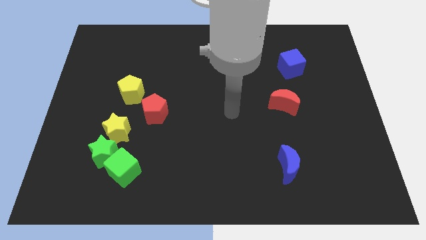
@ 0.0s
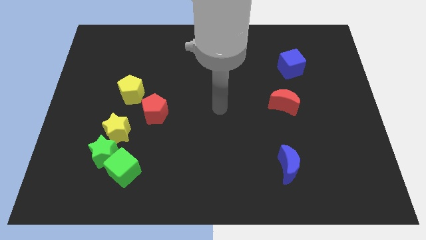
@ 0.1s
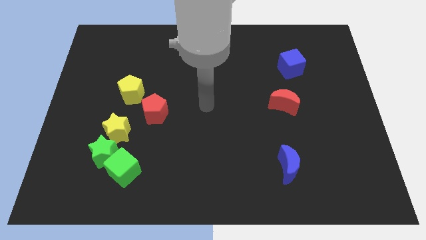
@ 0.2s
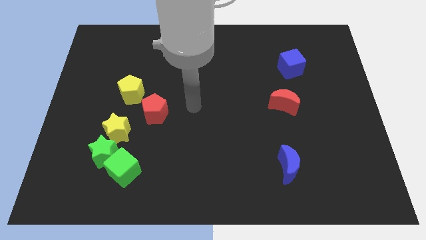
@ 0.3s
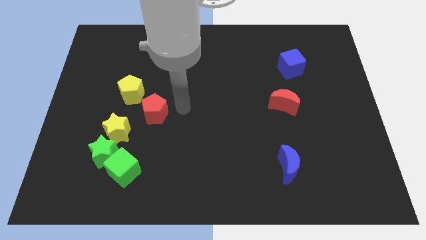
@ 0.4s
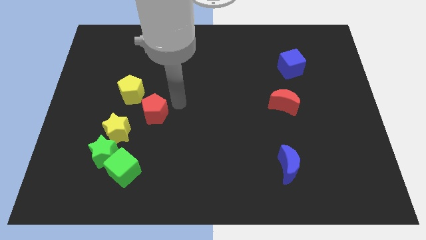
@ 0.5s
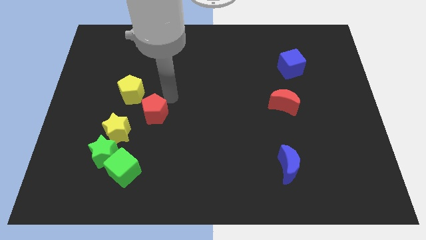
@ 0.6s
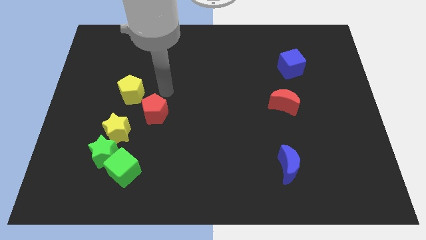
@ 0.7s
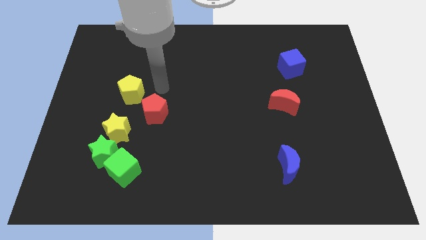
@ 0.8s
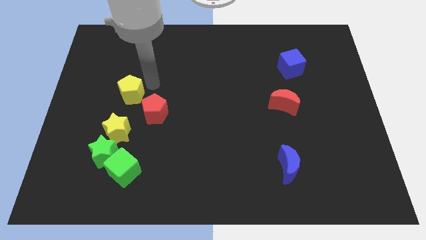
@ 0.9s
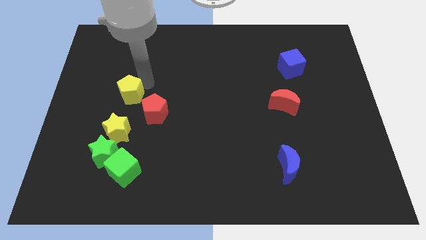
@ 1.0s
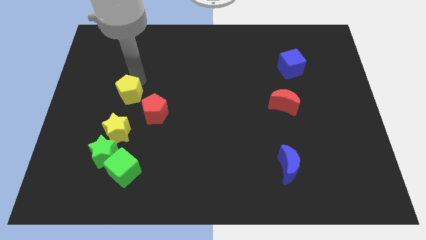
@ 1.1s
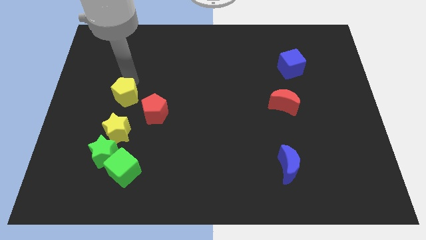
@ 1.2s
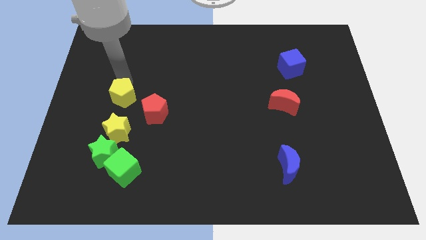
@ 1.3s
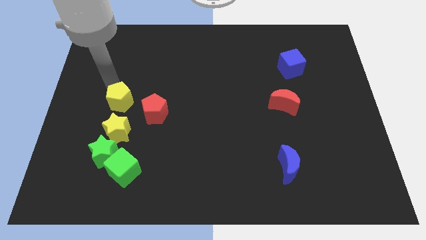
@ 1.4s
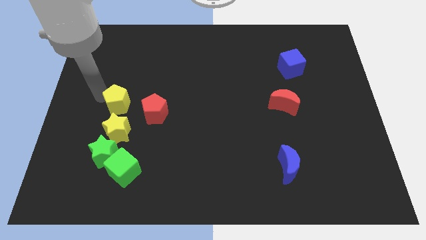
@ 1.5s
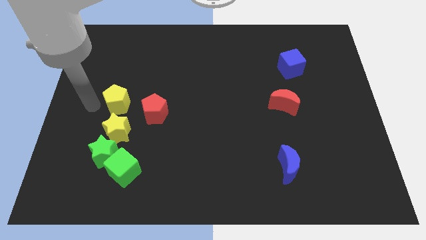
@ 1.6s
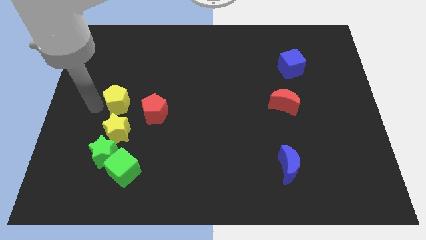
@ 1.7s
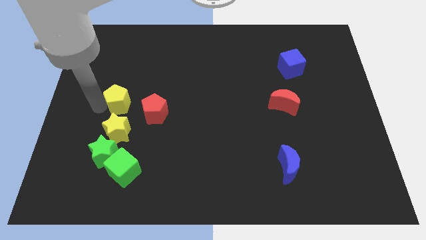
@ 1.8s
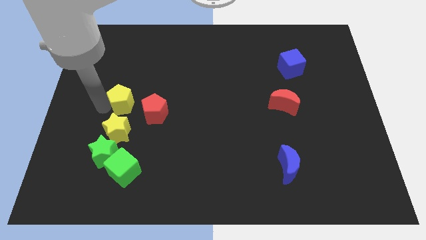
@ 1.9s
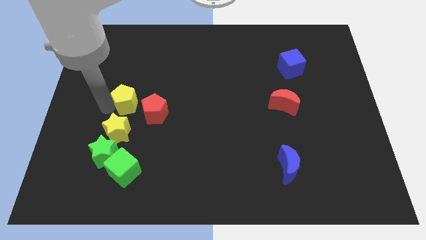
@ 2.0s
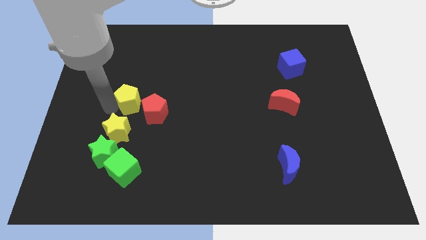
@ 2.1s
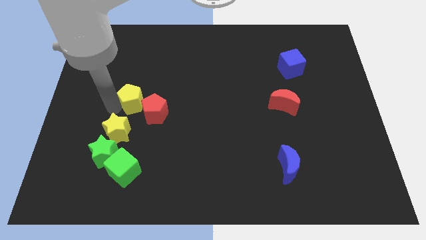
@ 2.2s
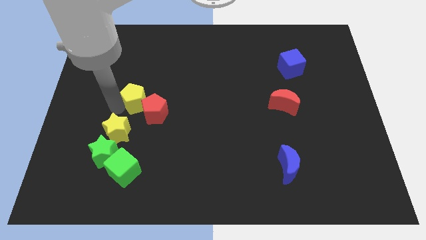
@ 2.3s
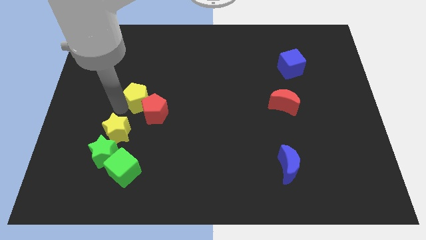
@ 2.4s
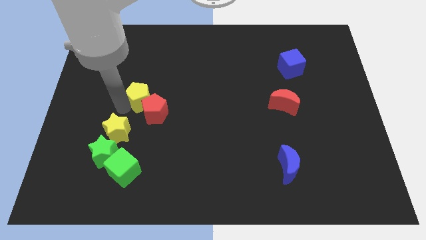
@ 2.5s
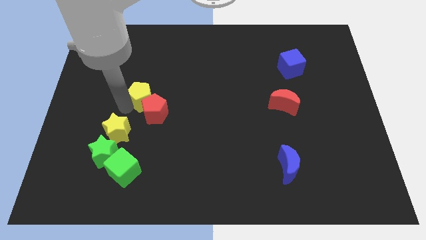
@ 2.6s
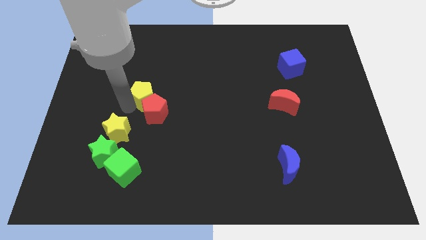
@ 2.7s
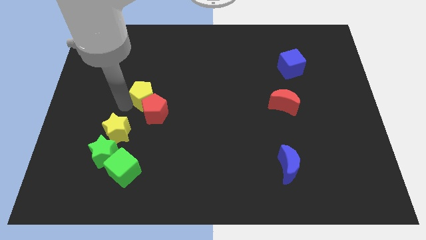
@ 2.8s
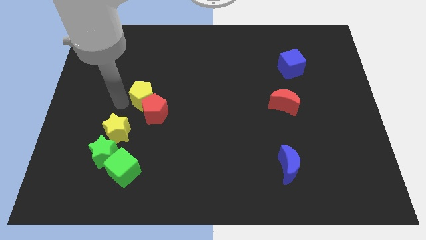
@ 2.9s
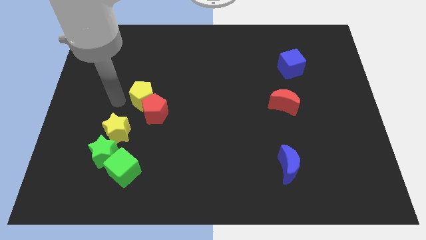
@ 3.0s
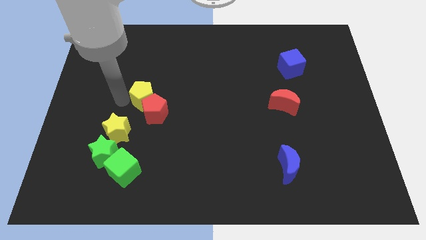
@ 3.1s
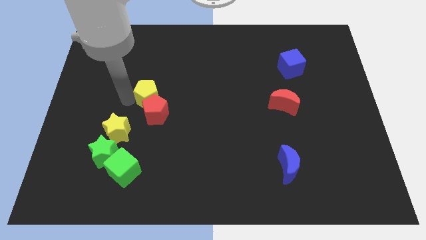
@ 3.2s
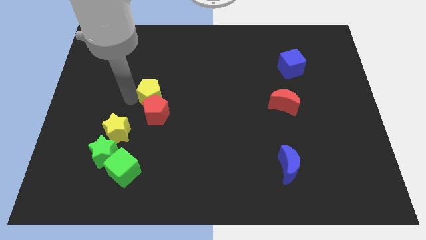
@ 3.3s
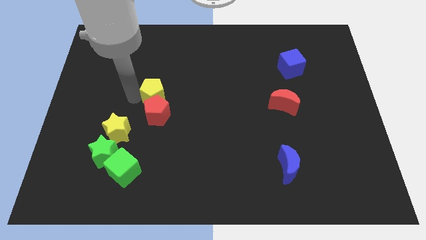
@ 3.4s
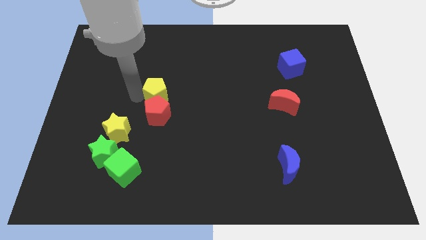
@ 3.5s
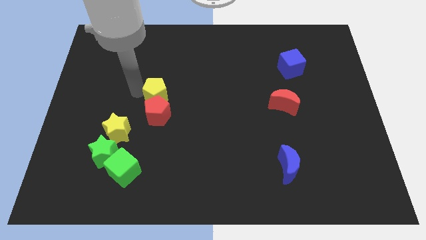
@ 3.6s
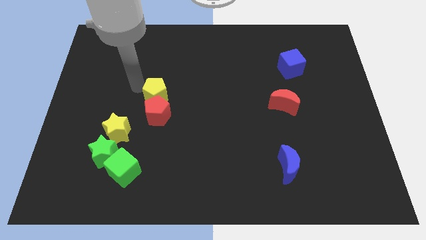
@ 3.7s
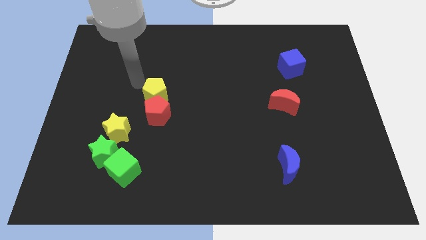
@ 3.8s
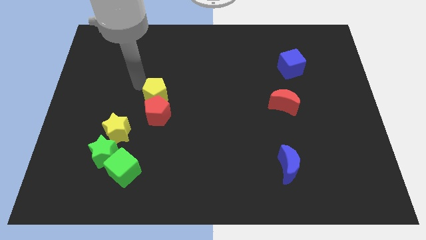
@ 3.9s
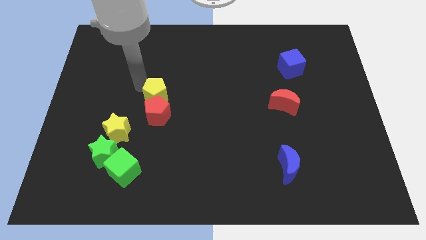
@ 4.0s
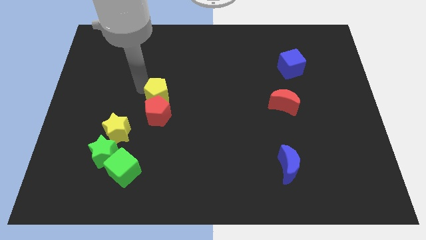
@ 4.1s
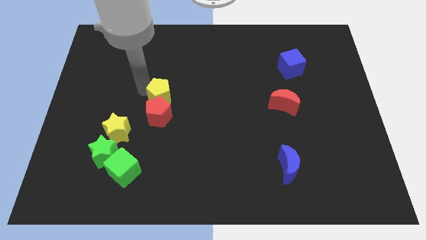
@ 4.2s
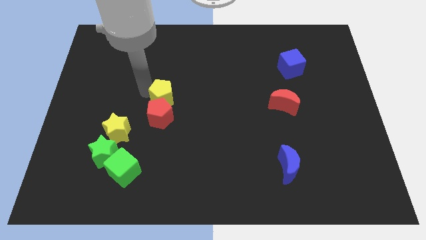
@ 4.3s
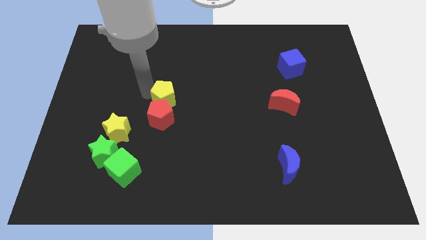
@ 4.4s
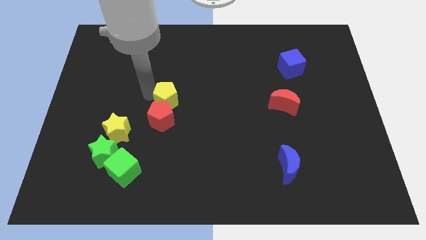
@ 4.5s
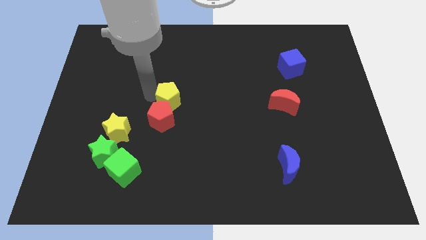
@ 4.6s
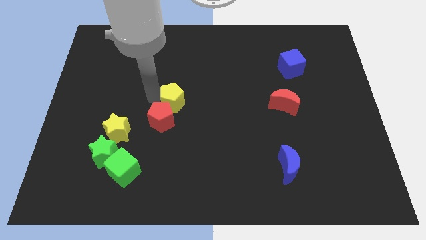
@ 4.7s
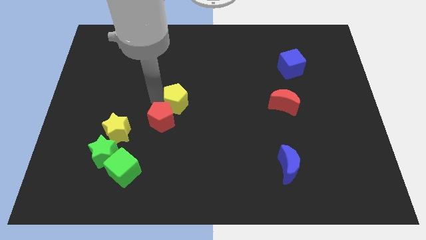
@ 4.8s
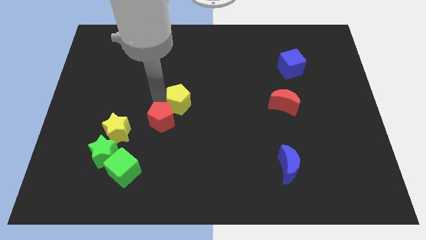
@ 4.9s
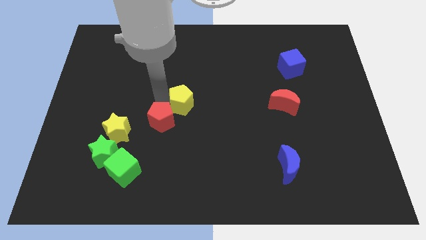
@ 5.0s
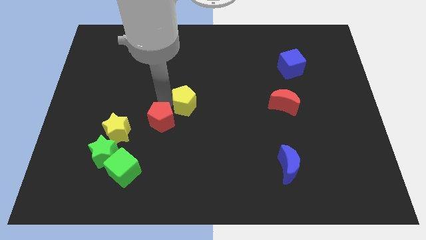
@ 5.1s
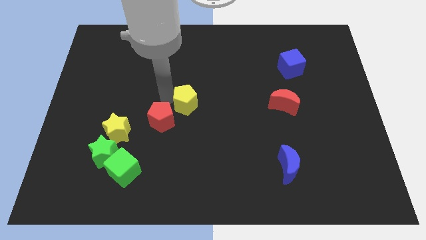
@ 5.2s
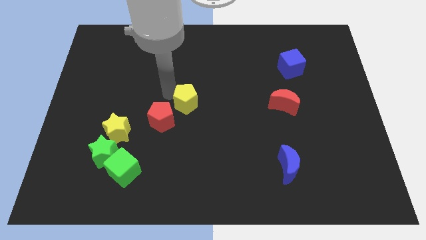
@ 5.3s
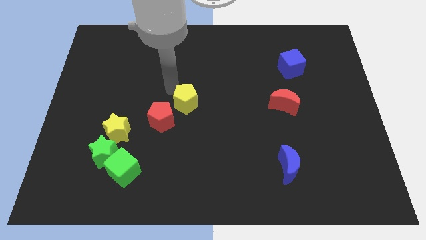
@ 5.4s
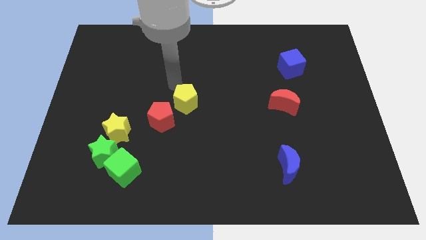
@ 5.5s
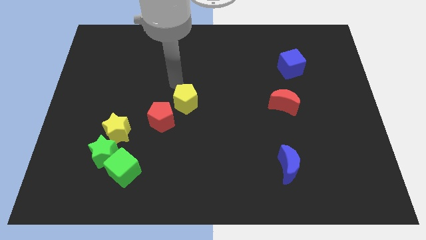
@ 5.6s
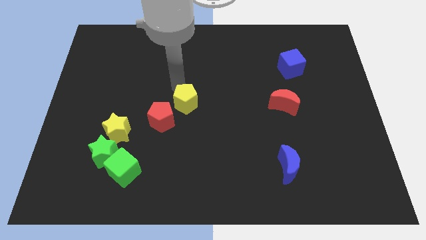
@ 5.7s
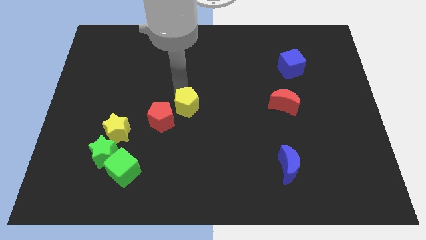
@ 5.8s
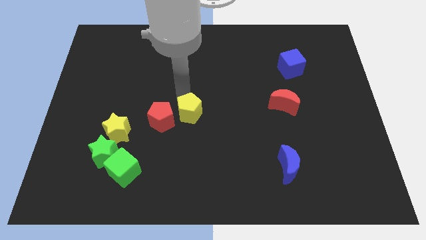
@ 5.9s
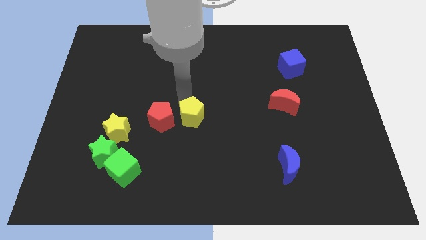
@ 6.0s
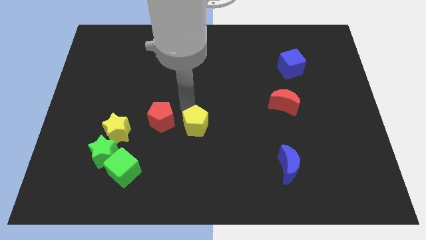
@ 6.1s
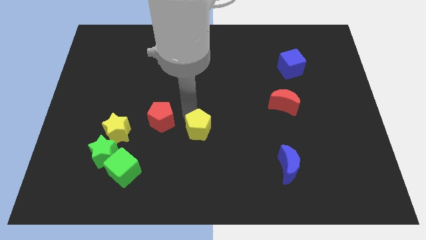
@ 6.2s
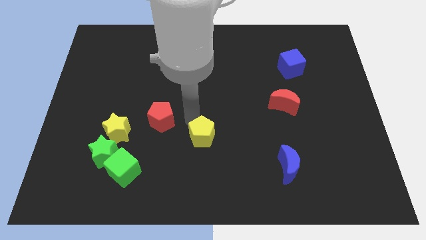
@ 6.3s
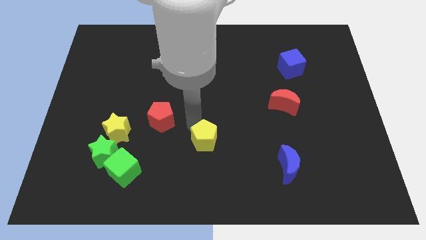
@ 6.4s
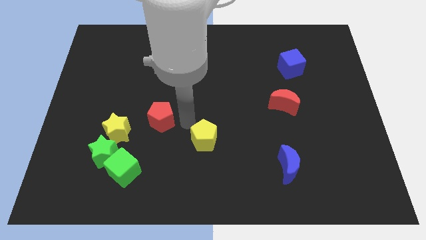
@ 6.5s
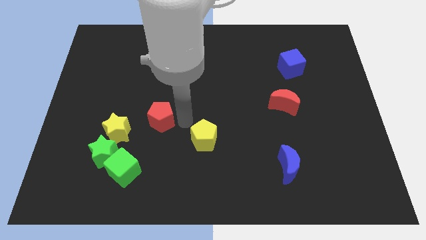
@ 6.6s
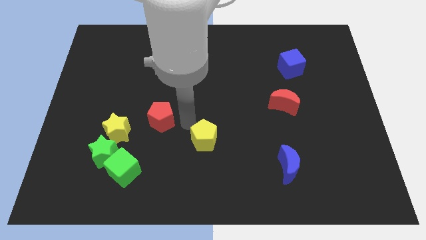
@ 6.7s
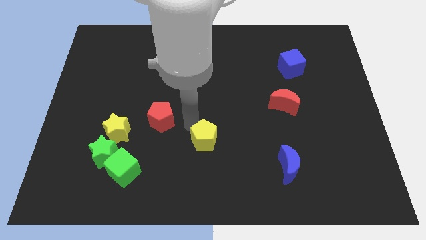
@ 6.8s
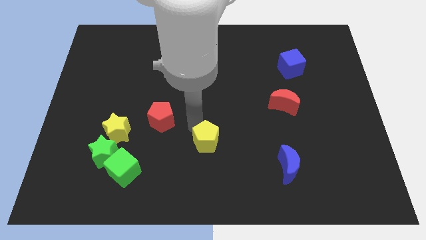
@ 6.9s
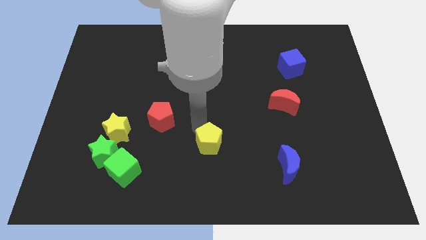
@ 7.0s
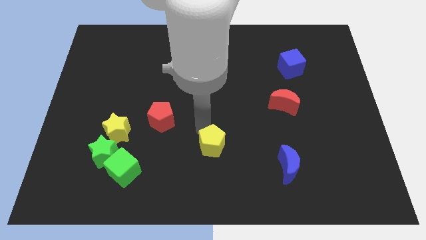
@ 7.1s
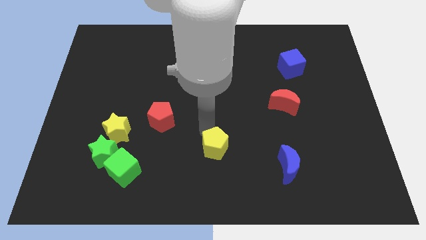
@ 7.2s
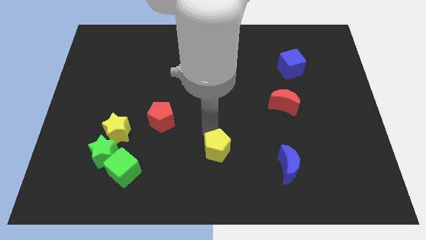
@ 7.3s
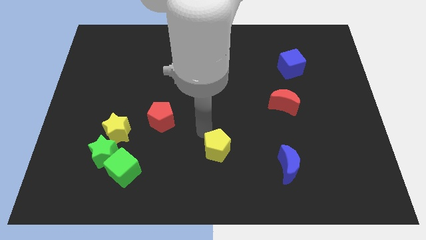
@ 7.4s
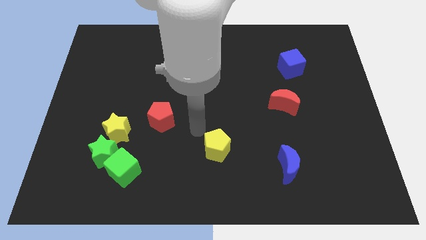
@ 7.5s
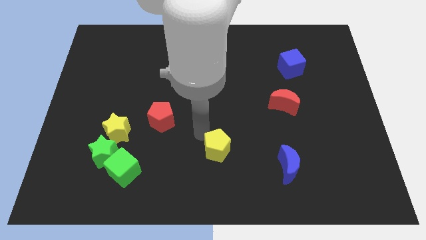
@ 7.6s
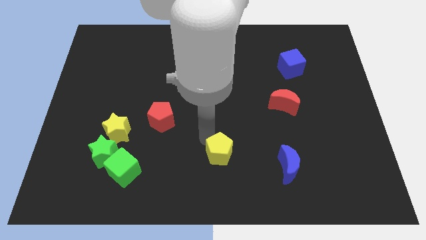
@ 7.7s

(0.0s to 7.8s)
push the yellow pentagon left of the blue moon

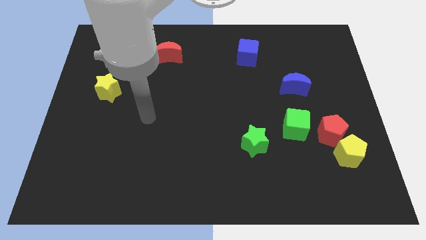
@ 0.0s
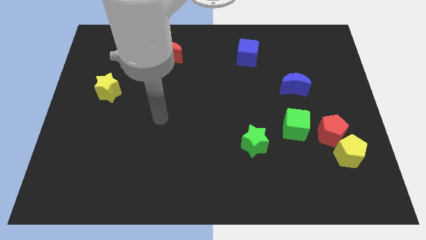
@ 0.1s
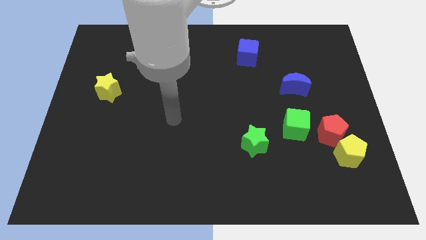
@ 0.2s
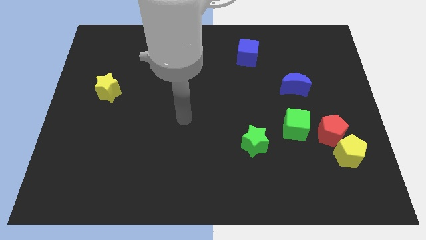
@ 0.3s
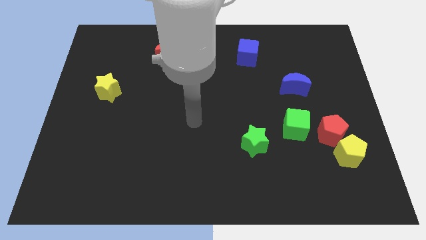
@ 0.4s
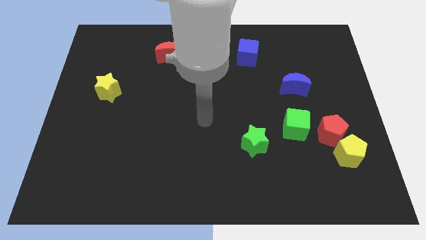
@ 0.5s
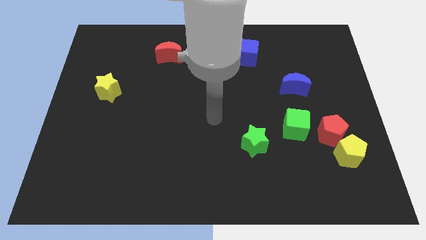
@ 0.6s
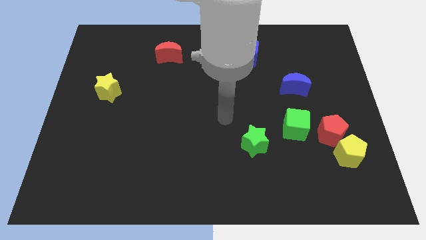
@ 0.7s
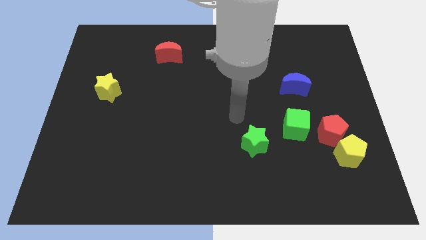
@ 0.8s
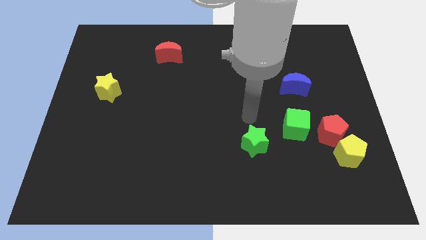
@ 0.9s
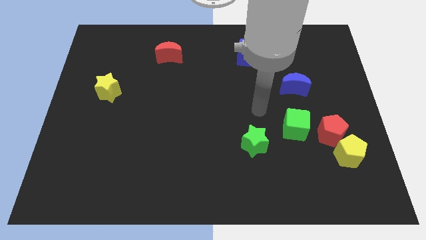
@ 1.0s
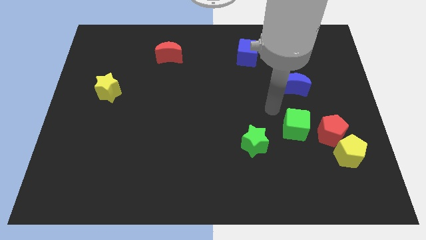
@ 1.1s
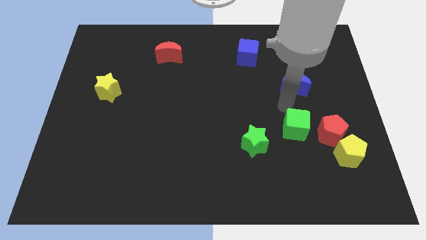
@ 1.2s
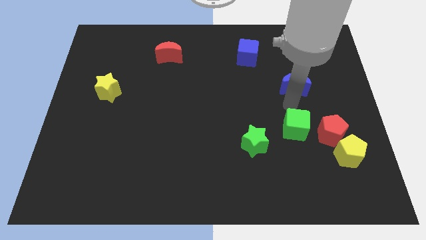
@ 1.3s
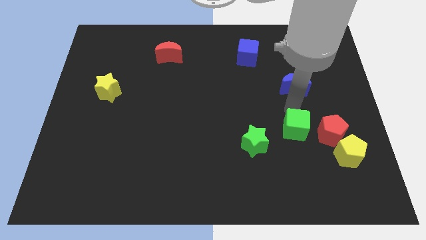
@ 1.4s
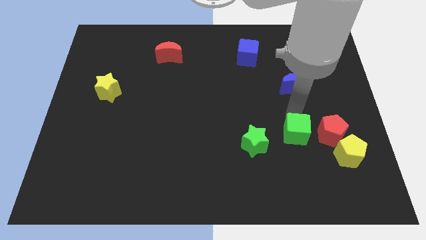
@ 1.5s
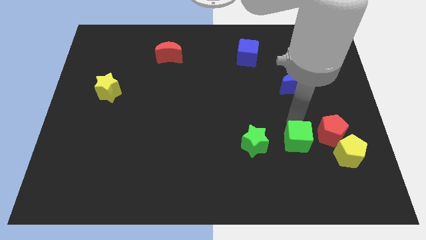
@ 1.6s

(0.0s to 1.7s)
move the green cube just left of the yellow pentagon
